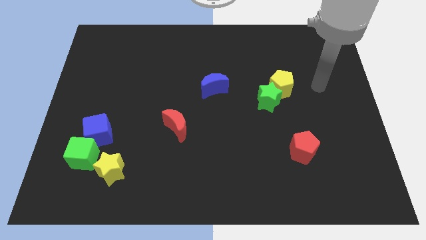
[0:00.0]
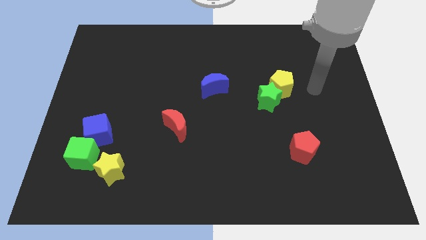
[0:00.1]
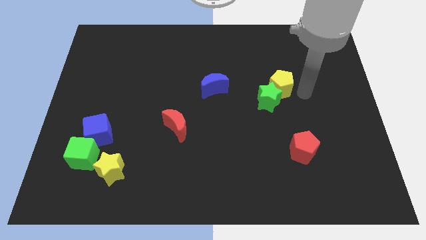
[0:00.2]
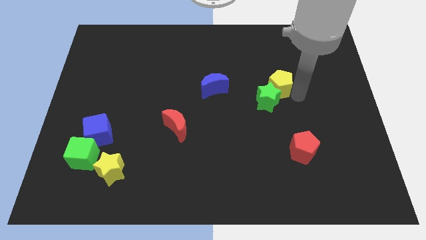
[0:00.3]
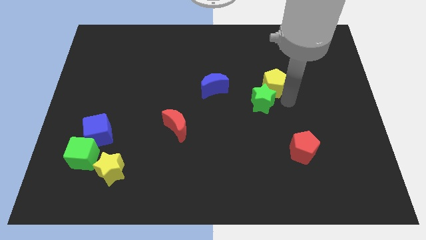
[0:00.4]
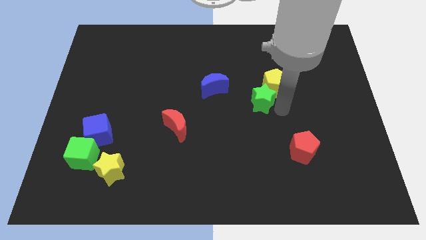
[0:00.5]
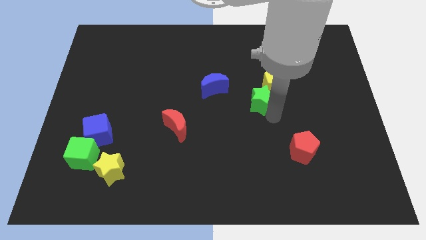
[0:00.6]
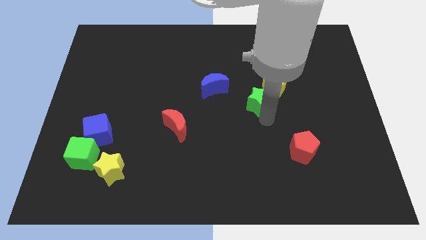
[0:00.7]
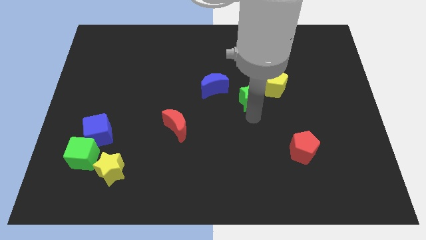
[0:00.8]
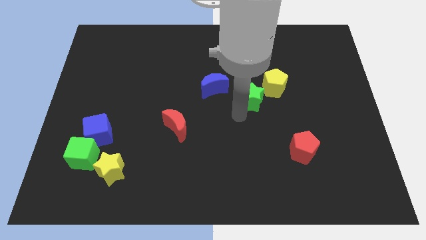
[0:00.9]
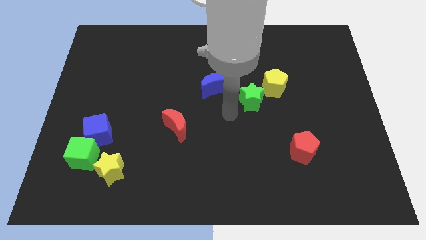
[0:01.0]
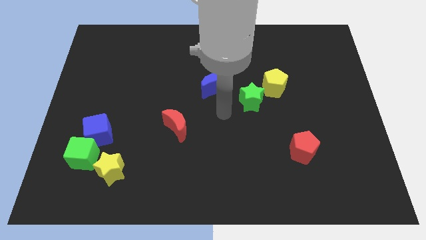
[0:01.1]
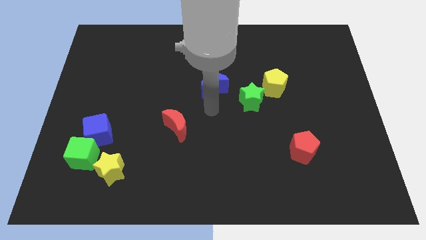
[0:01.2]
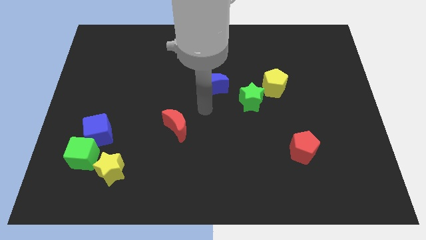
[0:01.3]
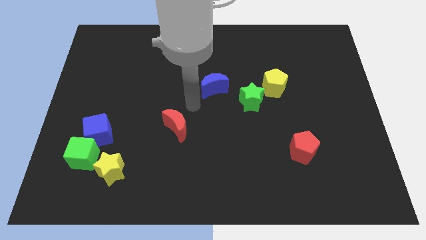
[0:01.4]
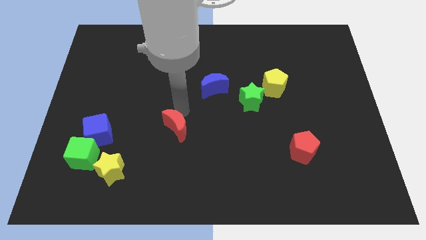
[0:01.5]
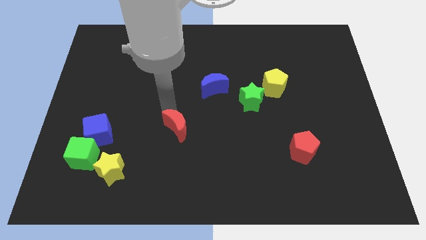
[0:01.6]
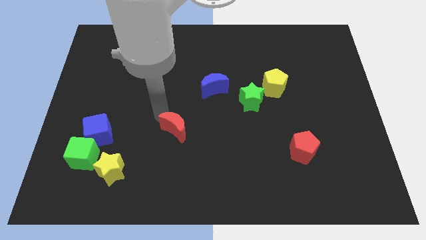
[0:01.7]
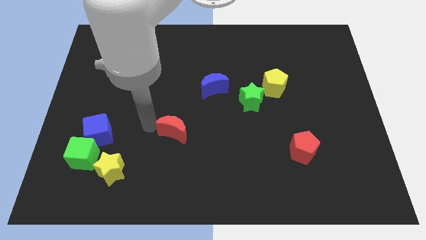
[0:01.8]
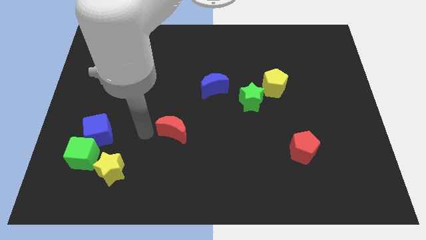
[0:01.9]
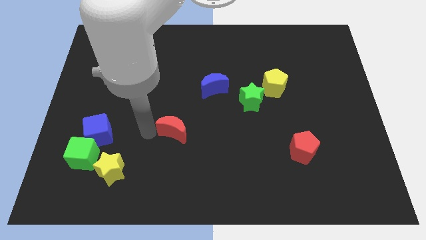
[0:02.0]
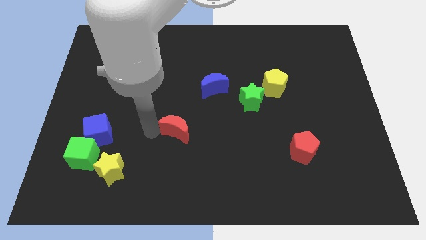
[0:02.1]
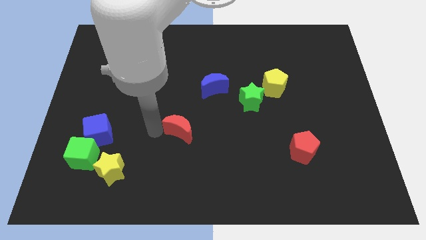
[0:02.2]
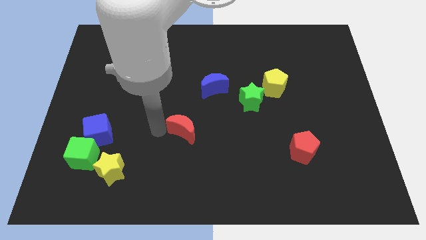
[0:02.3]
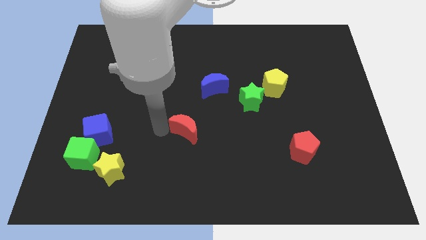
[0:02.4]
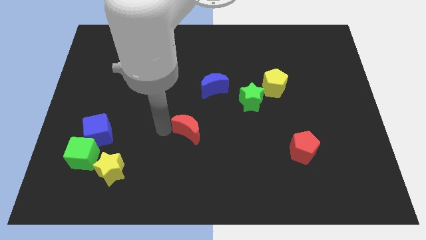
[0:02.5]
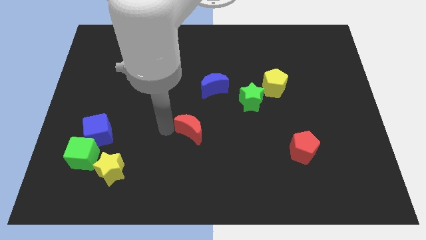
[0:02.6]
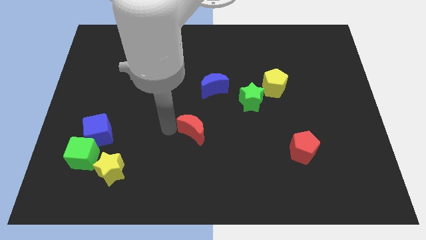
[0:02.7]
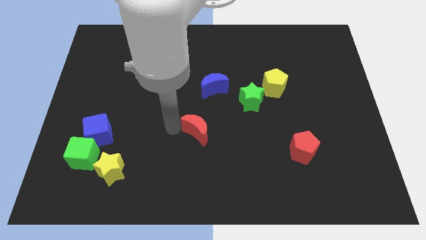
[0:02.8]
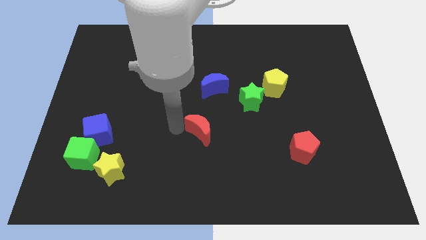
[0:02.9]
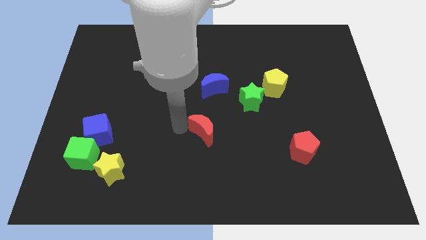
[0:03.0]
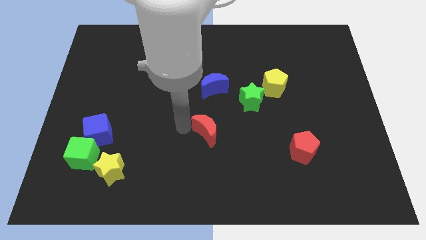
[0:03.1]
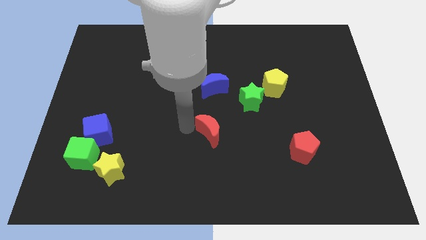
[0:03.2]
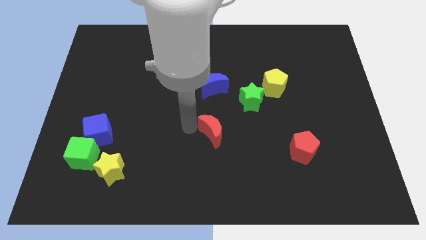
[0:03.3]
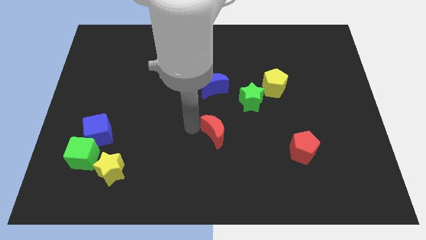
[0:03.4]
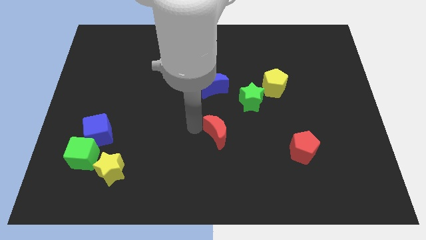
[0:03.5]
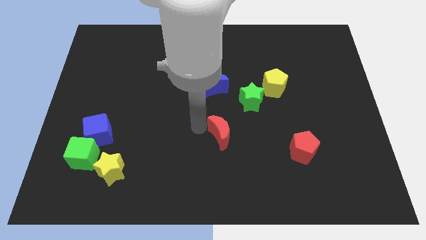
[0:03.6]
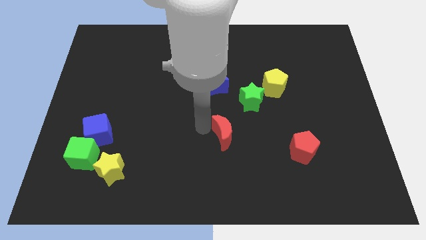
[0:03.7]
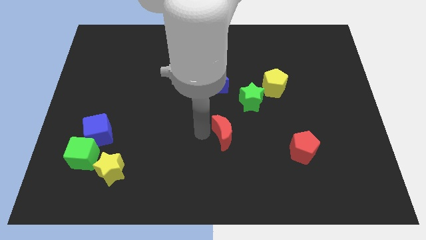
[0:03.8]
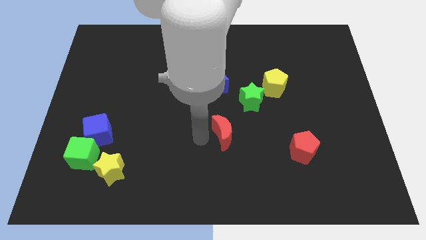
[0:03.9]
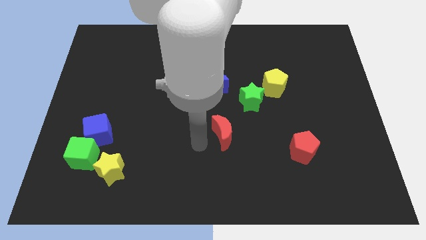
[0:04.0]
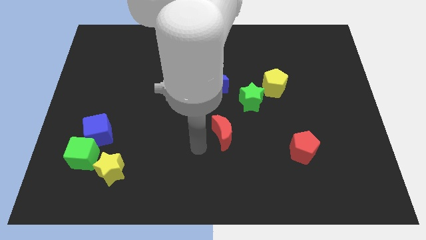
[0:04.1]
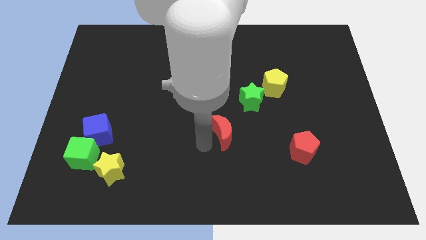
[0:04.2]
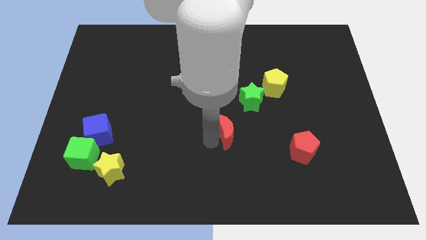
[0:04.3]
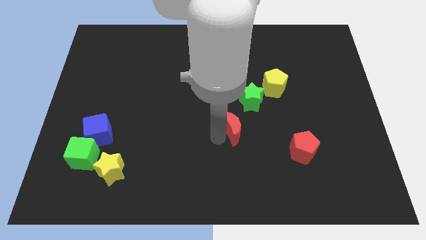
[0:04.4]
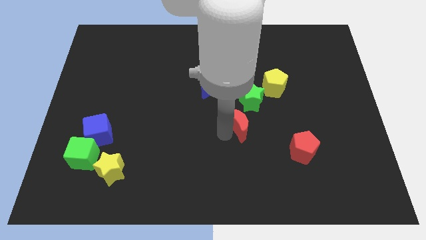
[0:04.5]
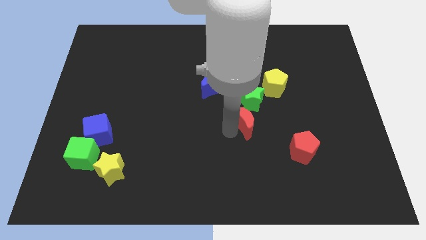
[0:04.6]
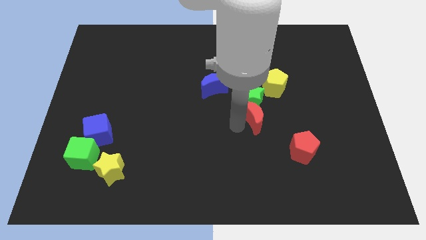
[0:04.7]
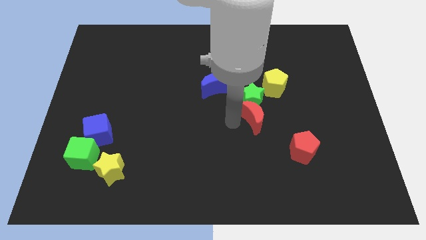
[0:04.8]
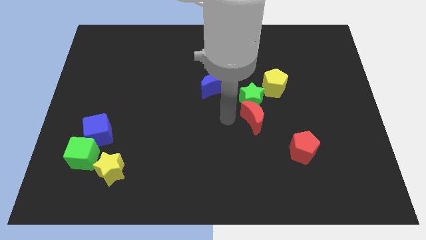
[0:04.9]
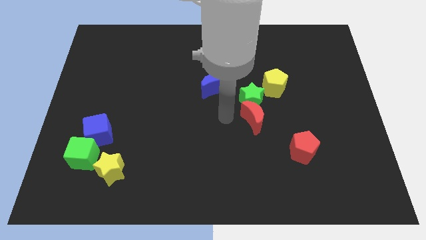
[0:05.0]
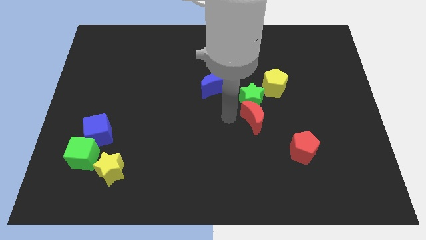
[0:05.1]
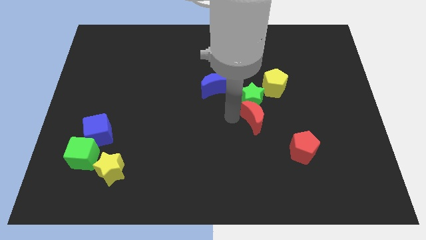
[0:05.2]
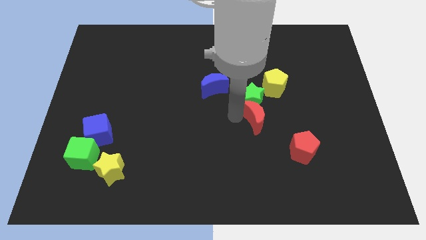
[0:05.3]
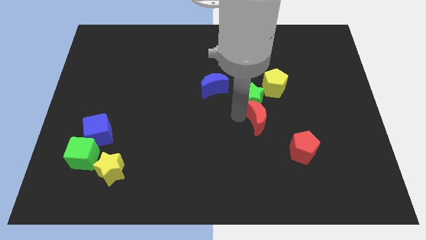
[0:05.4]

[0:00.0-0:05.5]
put the red moon to the bottom of the yellow pentagon

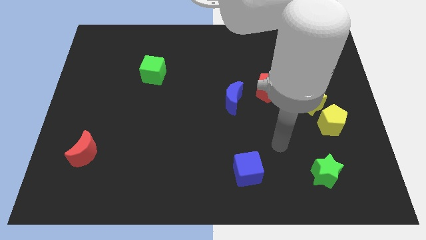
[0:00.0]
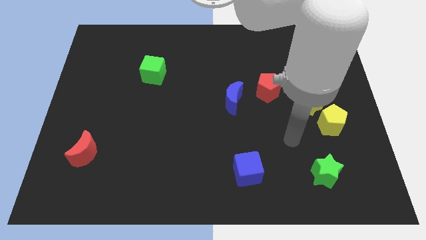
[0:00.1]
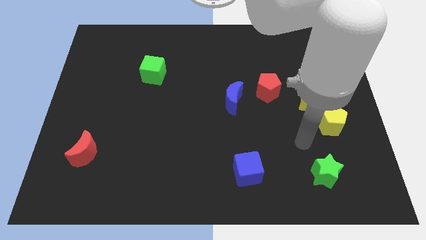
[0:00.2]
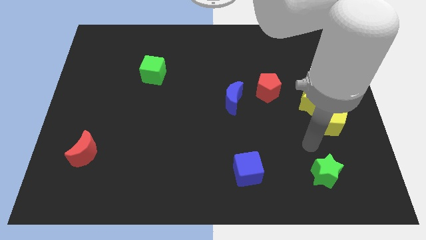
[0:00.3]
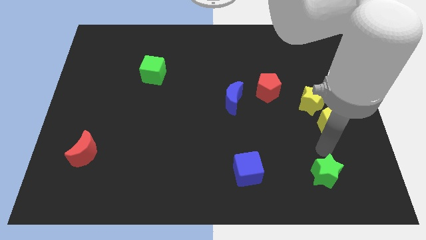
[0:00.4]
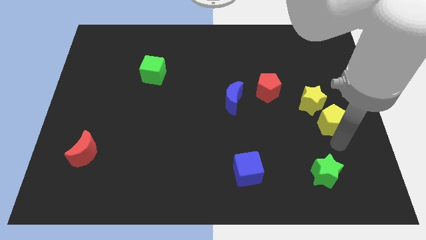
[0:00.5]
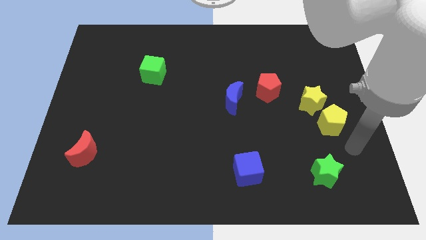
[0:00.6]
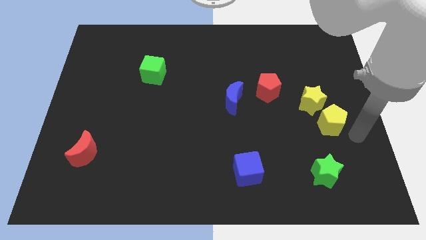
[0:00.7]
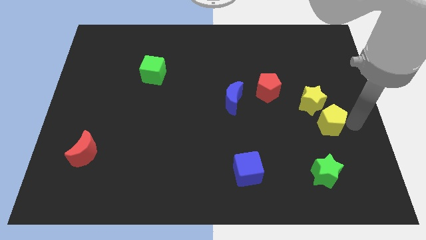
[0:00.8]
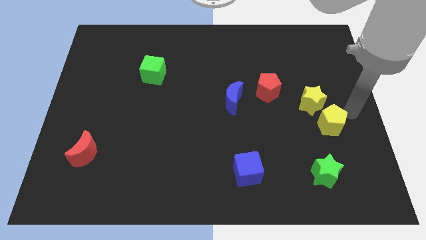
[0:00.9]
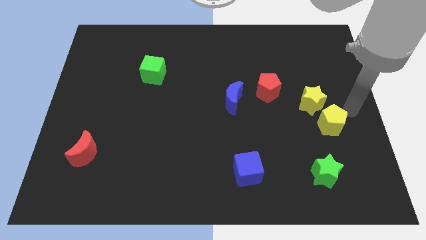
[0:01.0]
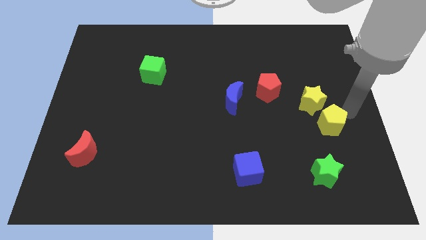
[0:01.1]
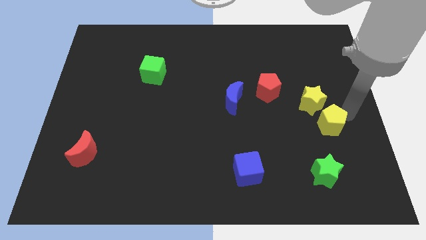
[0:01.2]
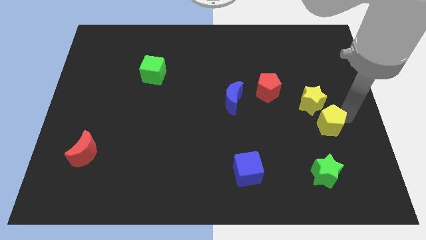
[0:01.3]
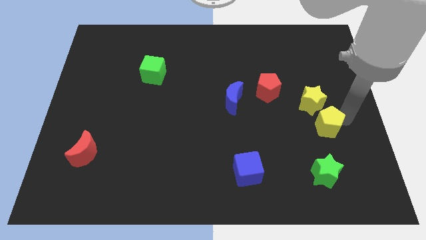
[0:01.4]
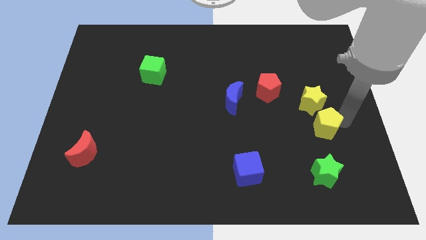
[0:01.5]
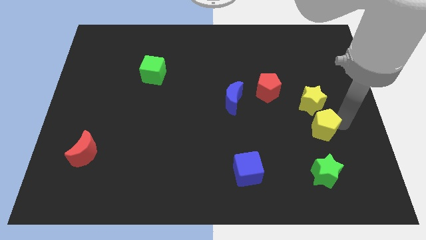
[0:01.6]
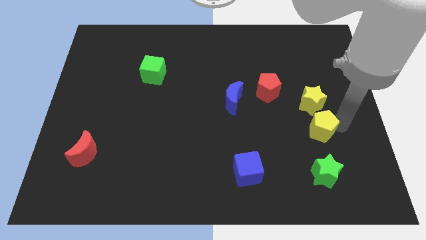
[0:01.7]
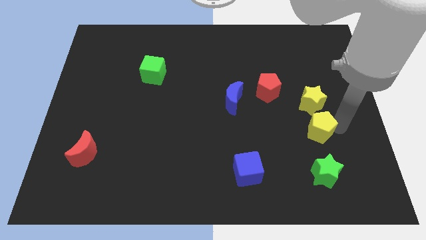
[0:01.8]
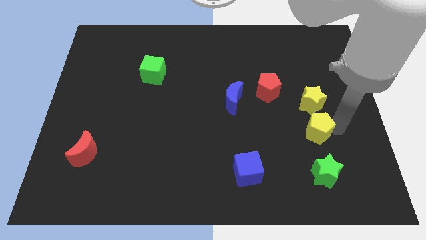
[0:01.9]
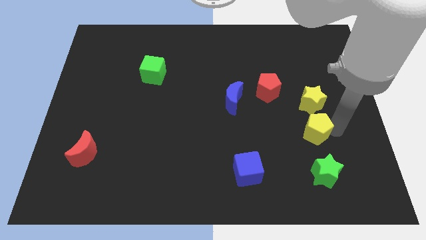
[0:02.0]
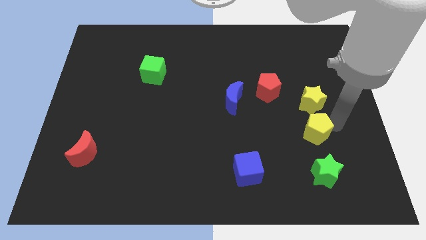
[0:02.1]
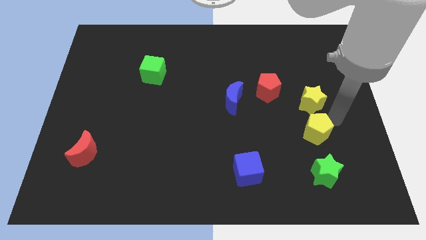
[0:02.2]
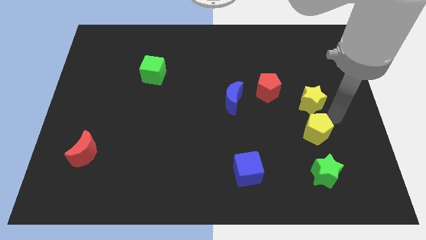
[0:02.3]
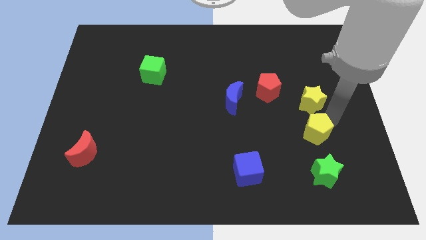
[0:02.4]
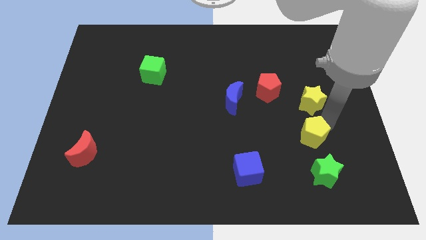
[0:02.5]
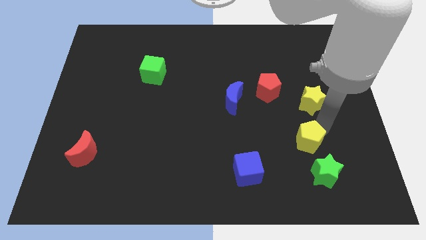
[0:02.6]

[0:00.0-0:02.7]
slide the yellow pentagon to the top left side of the green star
